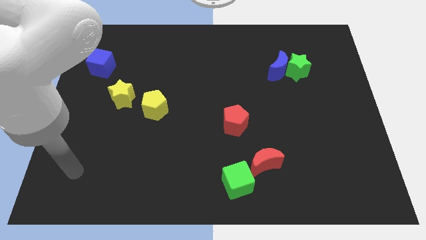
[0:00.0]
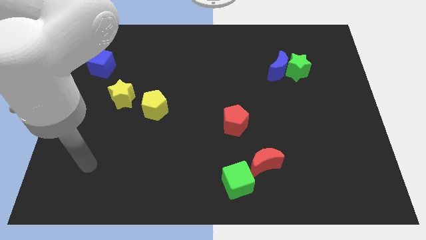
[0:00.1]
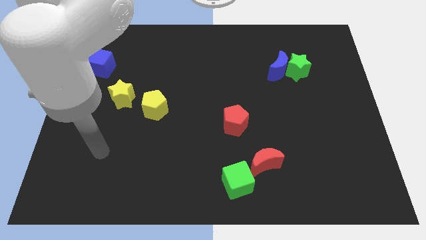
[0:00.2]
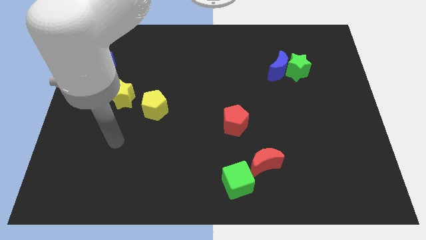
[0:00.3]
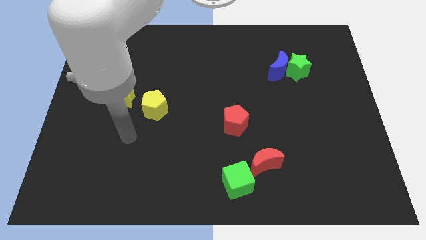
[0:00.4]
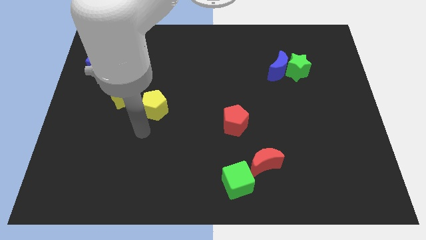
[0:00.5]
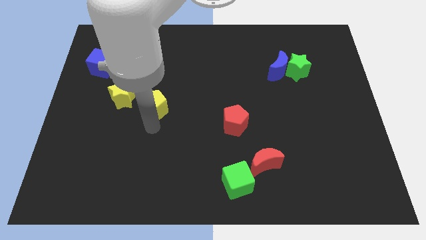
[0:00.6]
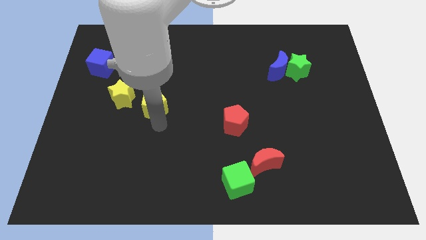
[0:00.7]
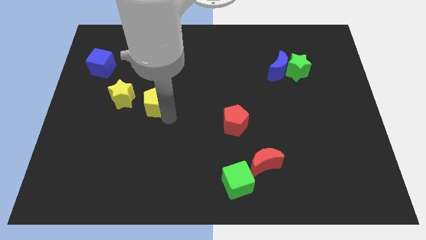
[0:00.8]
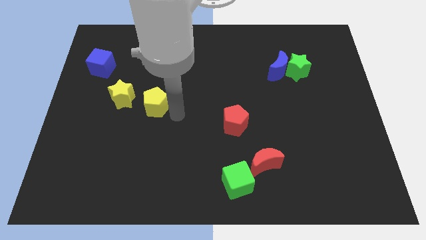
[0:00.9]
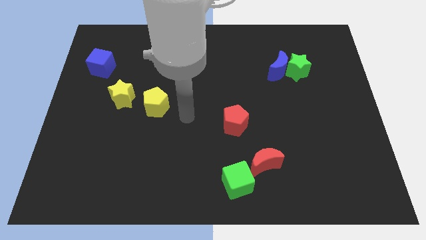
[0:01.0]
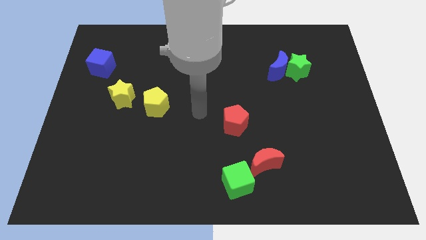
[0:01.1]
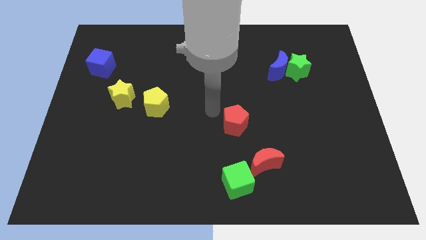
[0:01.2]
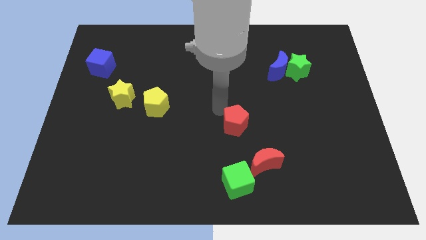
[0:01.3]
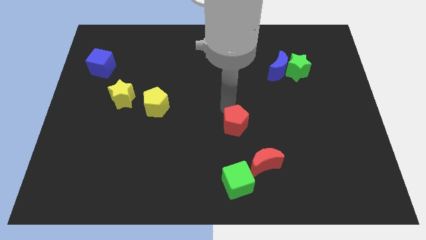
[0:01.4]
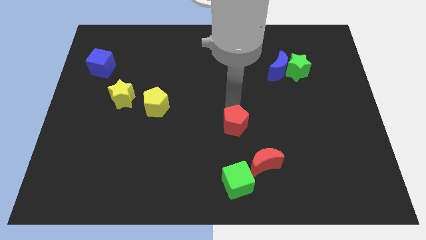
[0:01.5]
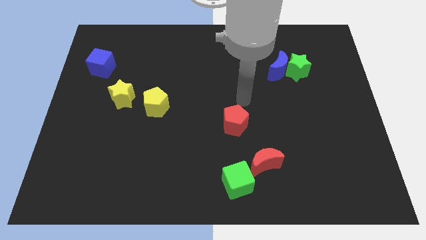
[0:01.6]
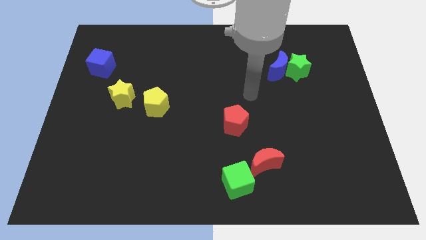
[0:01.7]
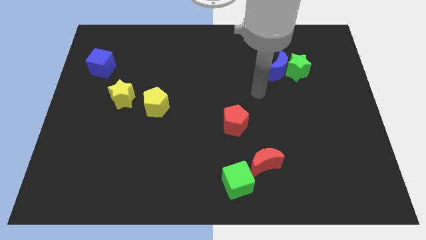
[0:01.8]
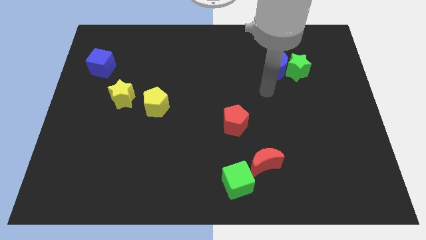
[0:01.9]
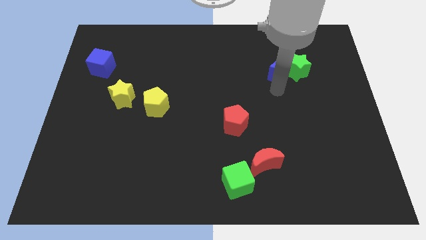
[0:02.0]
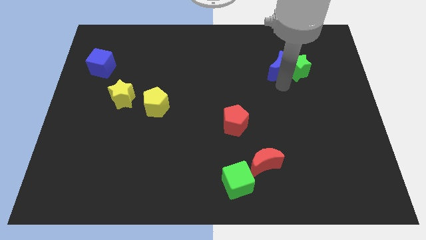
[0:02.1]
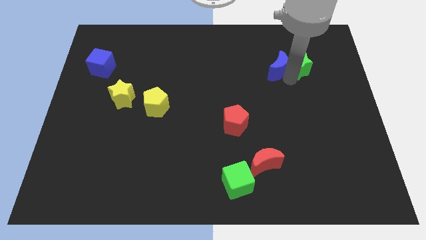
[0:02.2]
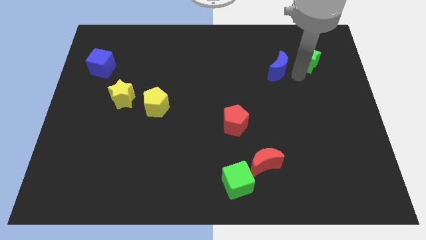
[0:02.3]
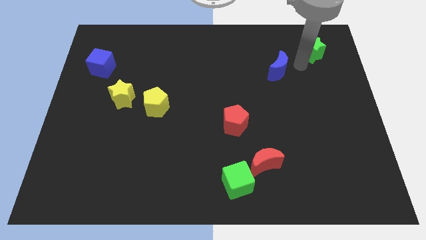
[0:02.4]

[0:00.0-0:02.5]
move the blue moon away from the green star

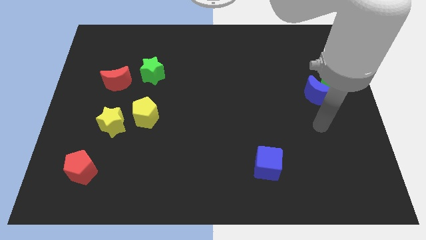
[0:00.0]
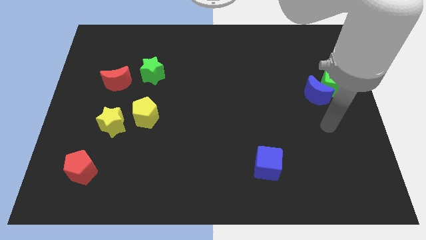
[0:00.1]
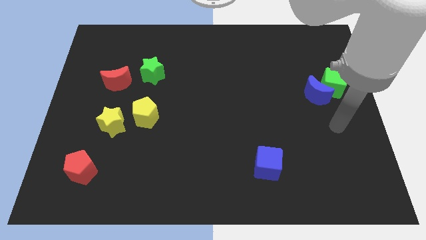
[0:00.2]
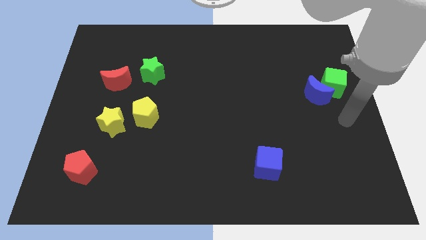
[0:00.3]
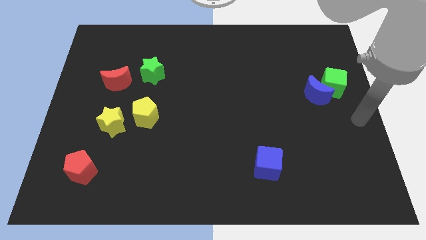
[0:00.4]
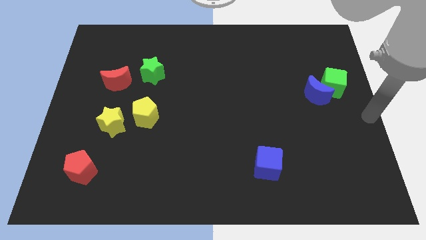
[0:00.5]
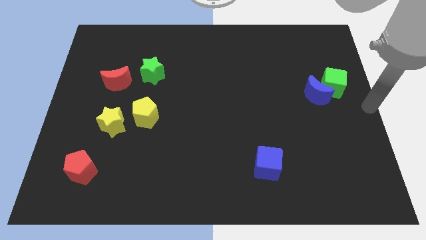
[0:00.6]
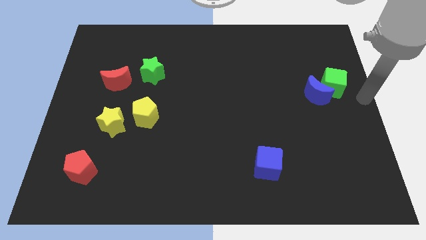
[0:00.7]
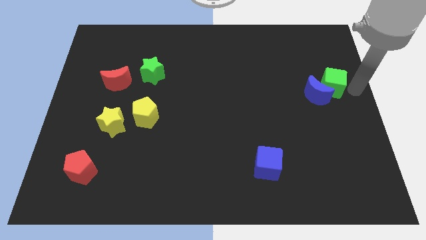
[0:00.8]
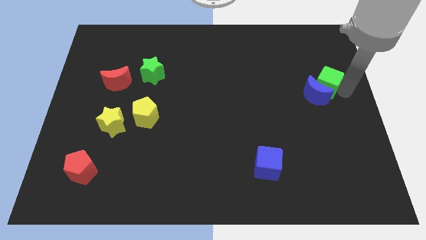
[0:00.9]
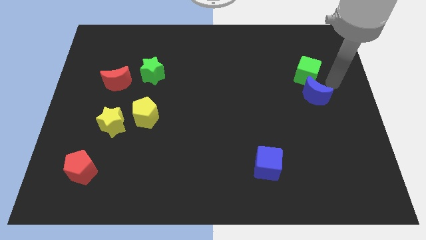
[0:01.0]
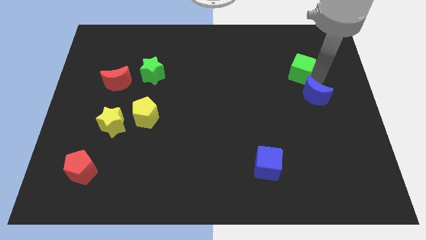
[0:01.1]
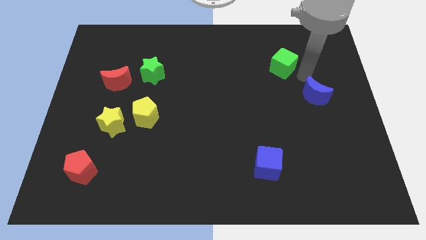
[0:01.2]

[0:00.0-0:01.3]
pull the blue moon apart from the green cube

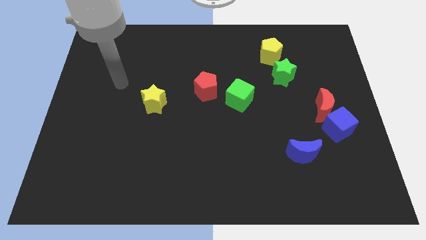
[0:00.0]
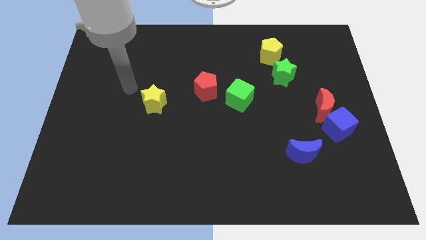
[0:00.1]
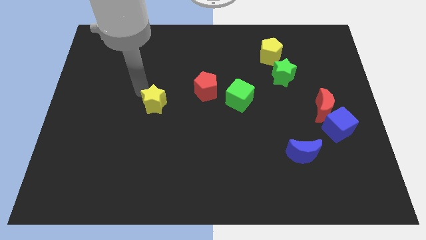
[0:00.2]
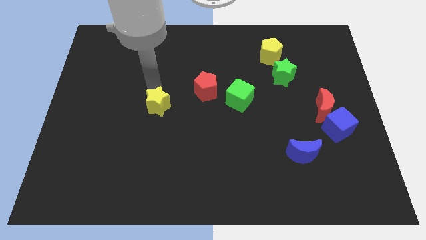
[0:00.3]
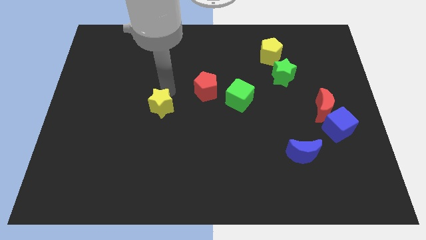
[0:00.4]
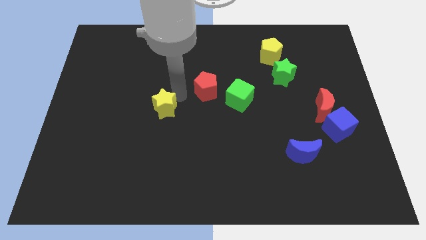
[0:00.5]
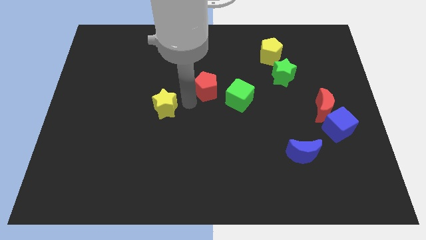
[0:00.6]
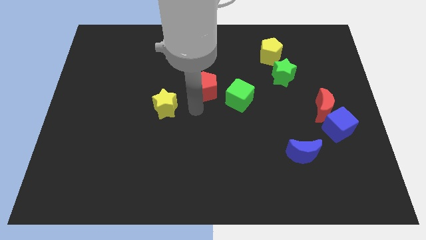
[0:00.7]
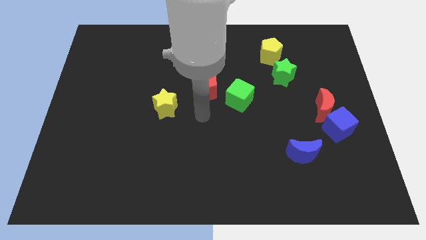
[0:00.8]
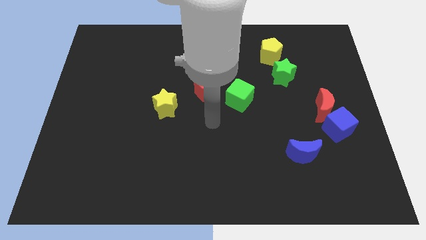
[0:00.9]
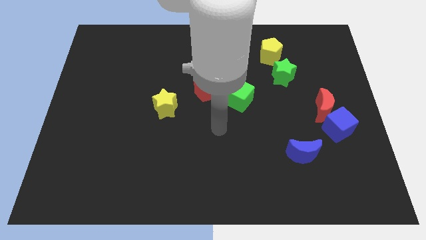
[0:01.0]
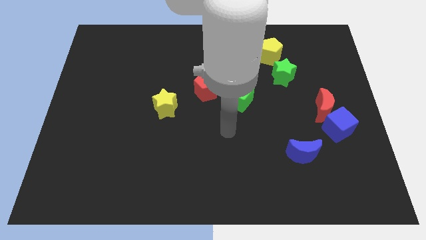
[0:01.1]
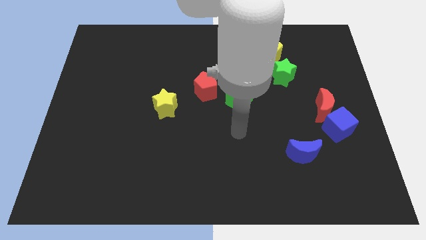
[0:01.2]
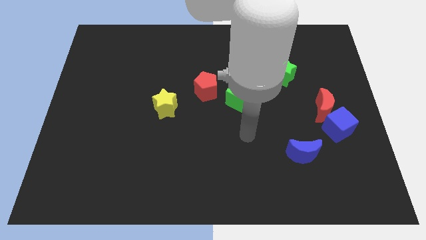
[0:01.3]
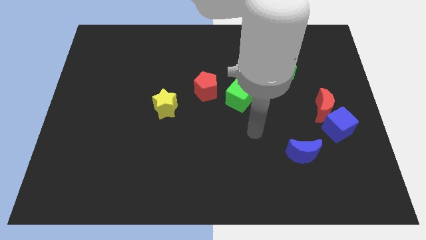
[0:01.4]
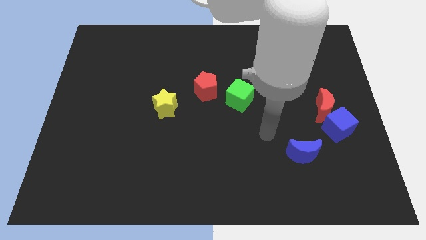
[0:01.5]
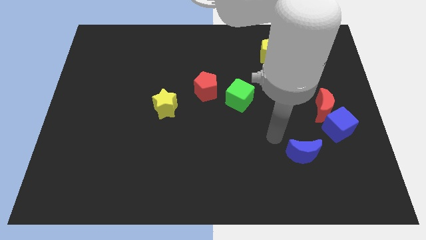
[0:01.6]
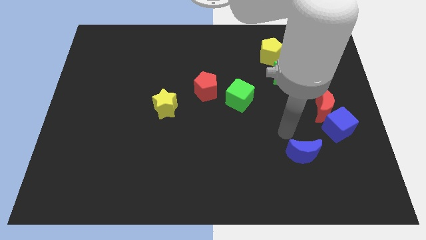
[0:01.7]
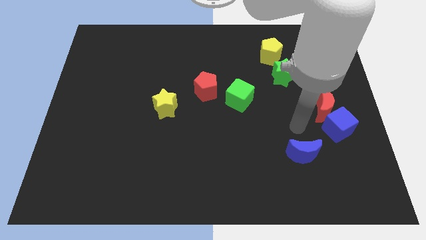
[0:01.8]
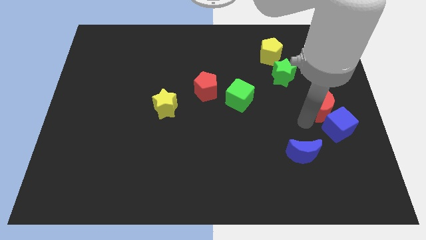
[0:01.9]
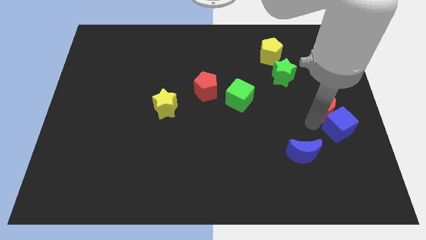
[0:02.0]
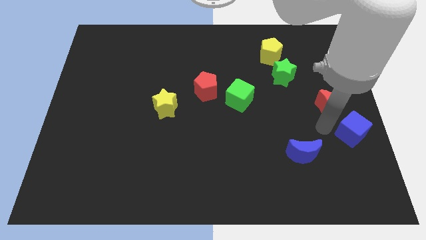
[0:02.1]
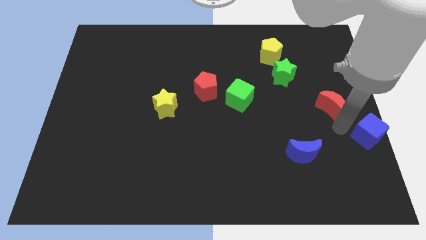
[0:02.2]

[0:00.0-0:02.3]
pull the red moon apart from the blue cube

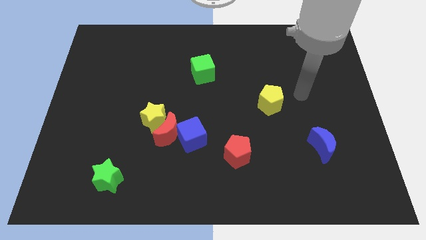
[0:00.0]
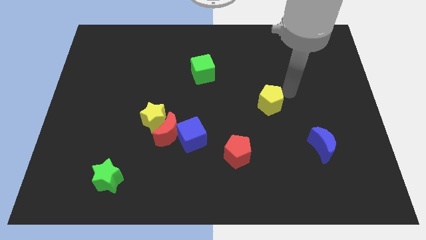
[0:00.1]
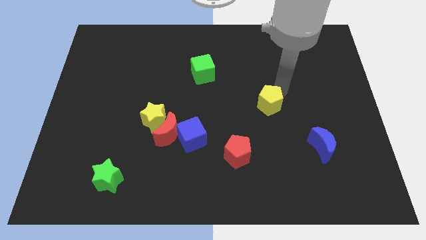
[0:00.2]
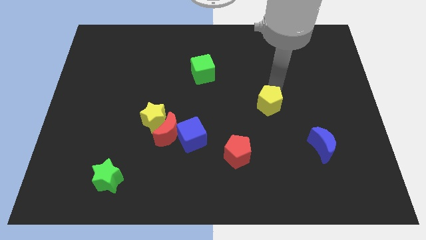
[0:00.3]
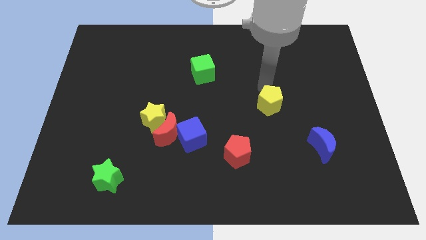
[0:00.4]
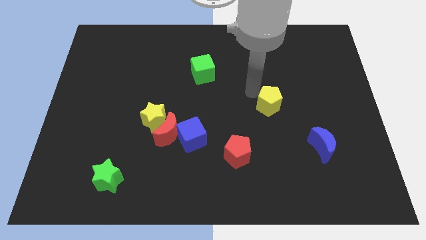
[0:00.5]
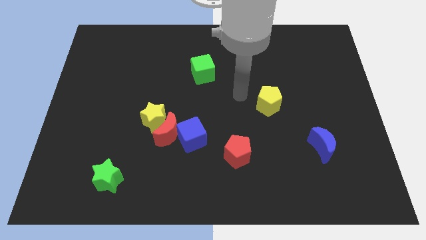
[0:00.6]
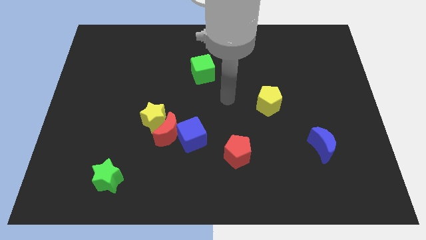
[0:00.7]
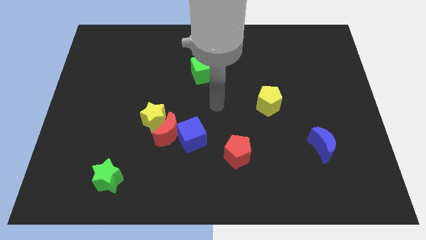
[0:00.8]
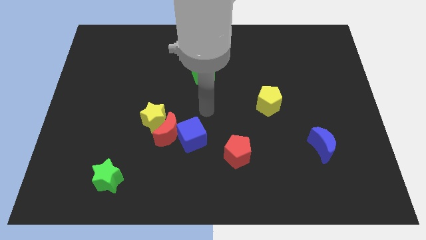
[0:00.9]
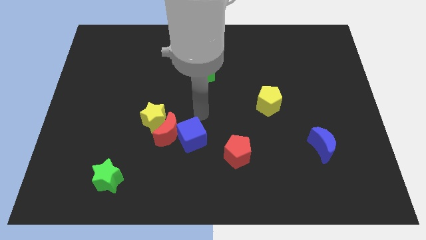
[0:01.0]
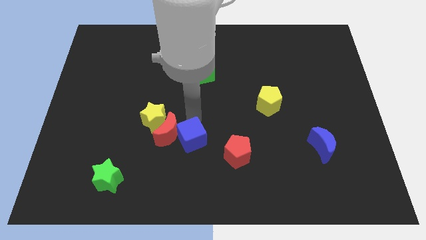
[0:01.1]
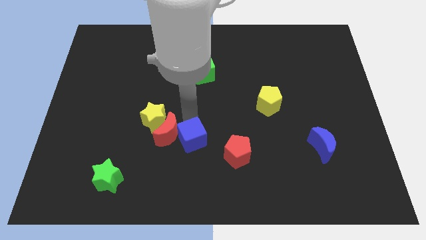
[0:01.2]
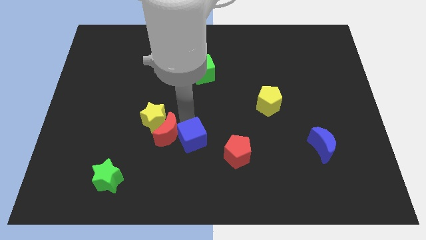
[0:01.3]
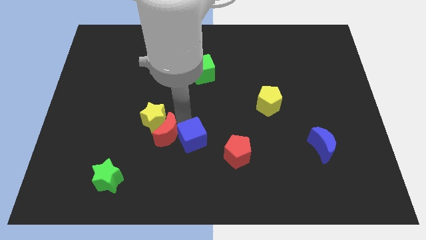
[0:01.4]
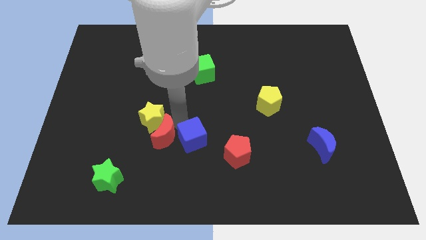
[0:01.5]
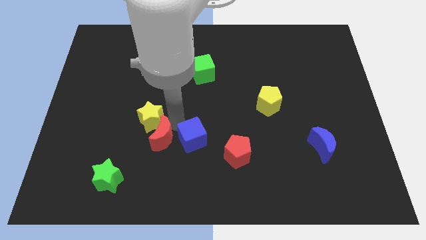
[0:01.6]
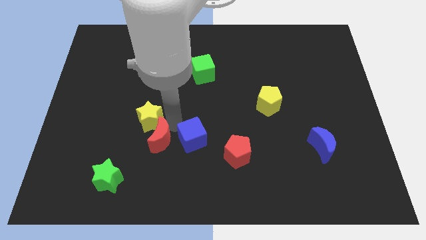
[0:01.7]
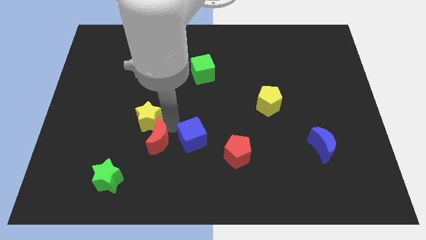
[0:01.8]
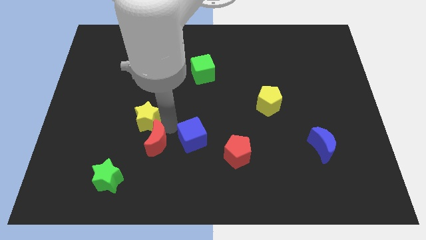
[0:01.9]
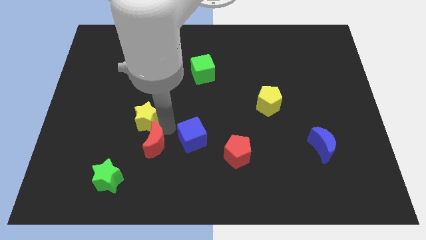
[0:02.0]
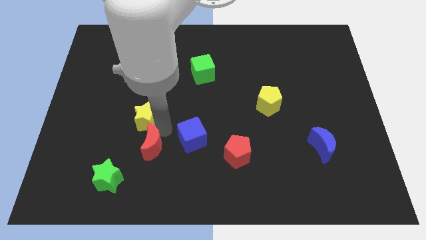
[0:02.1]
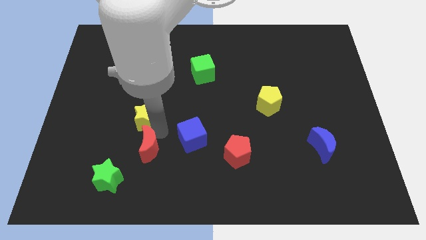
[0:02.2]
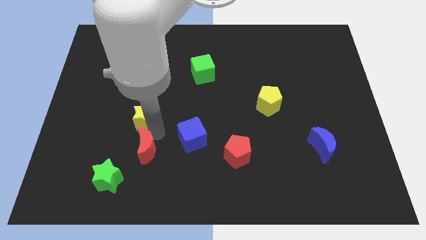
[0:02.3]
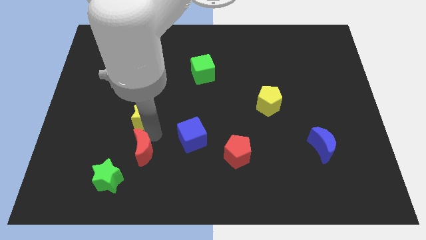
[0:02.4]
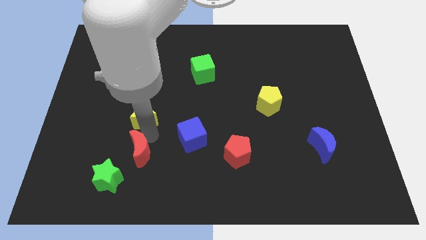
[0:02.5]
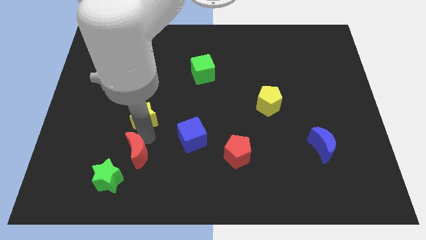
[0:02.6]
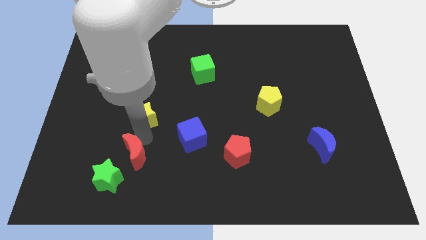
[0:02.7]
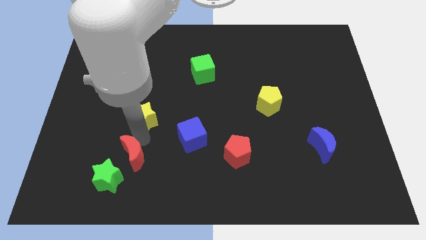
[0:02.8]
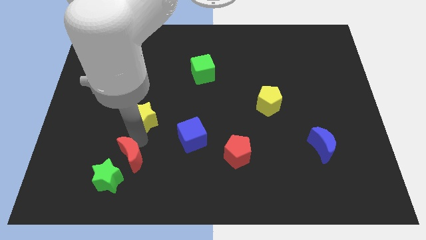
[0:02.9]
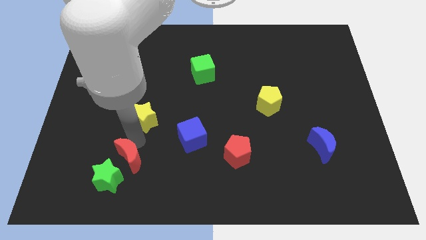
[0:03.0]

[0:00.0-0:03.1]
separate the red moon from the yellow star and blue cube

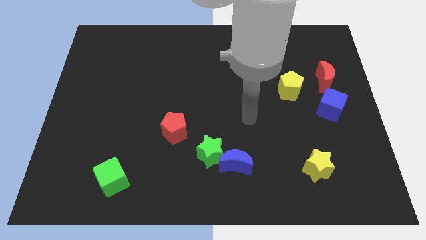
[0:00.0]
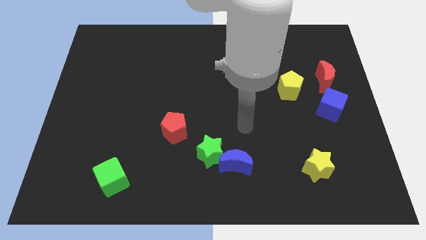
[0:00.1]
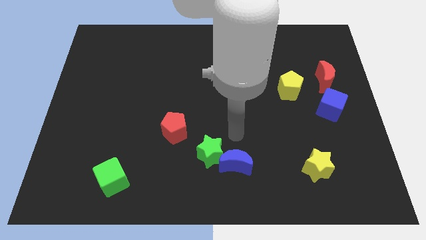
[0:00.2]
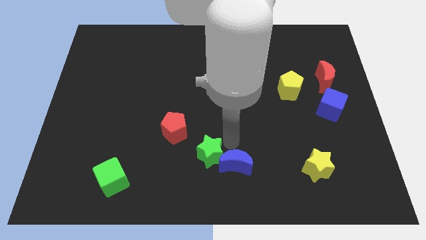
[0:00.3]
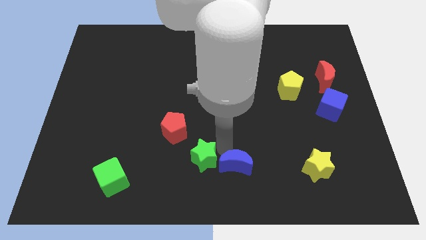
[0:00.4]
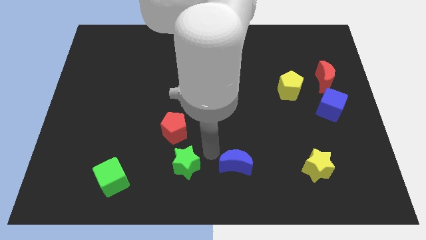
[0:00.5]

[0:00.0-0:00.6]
separate the blue moon from the green star
